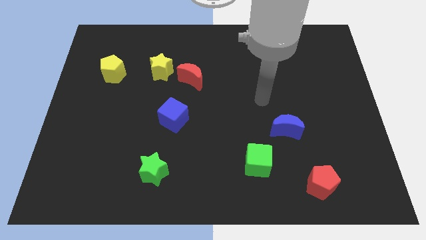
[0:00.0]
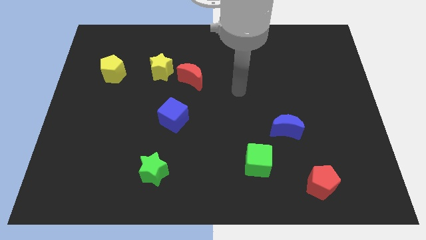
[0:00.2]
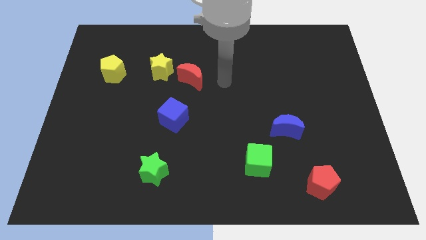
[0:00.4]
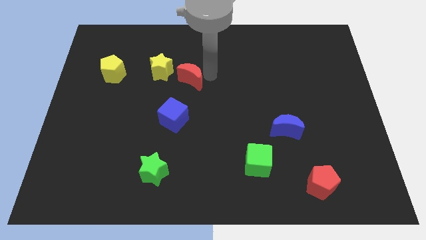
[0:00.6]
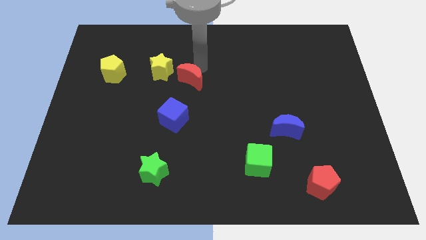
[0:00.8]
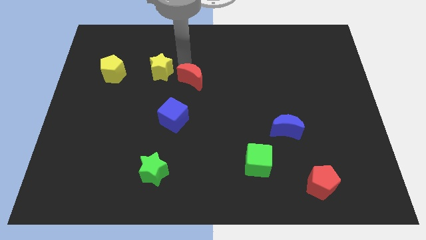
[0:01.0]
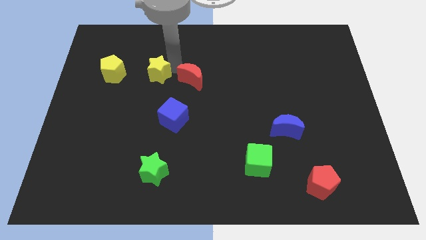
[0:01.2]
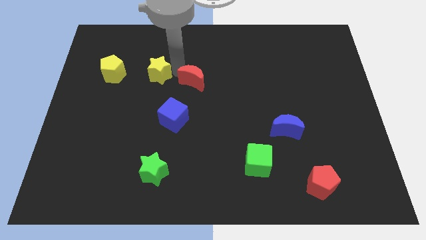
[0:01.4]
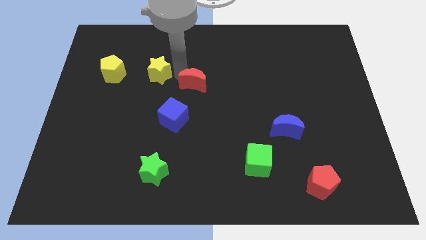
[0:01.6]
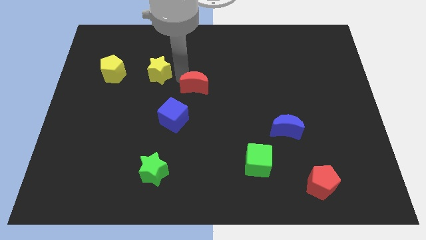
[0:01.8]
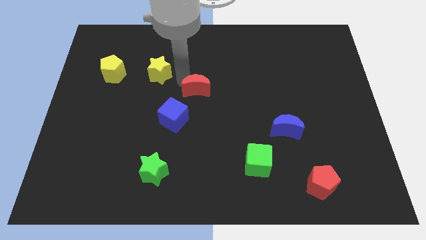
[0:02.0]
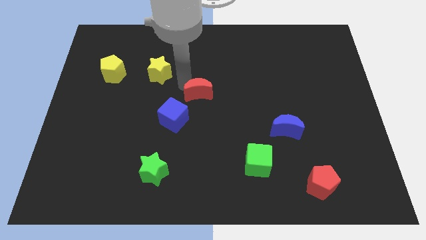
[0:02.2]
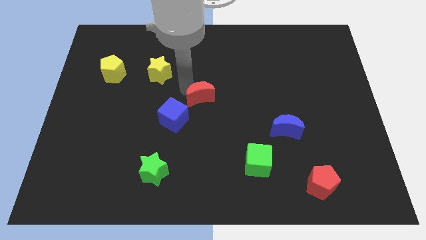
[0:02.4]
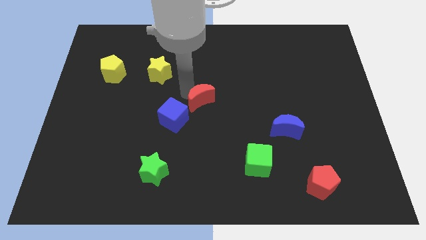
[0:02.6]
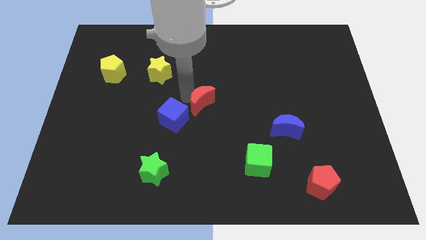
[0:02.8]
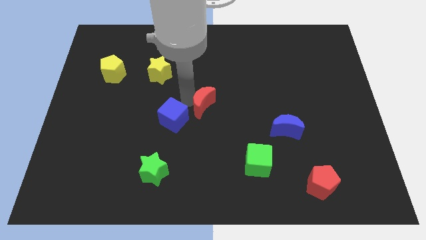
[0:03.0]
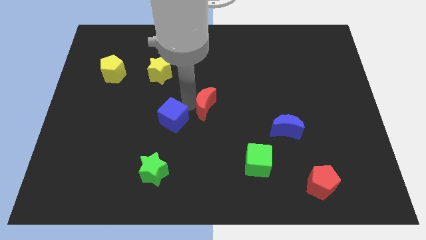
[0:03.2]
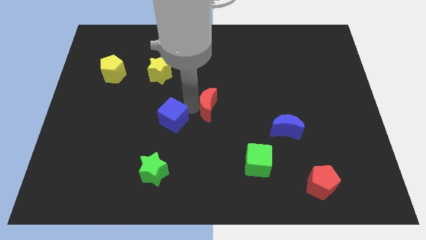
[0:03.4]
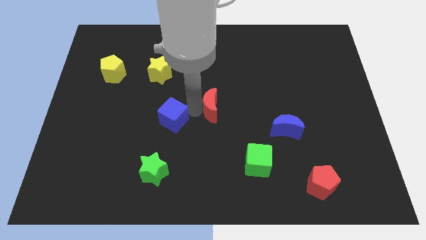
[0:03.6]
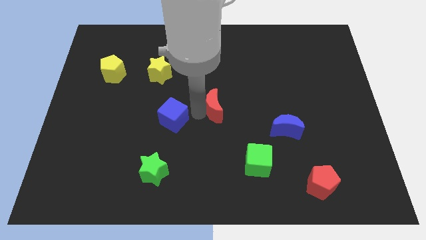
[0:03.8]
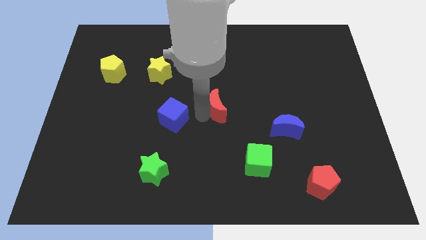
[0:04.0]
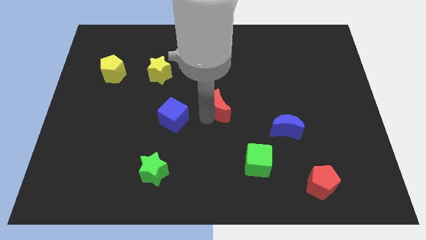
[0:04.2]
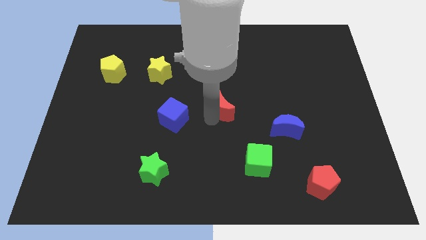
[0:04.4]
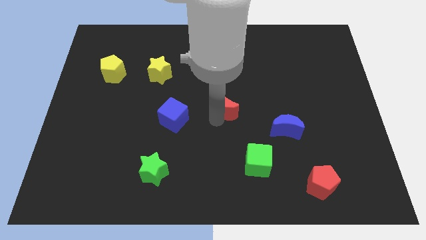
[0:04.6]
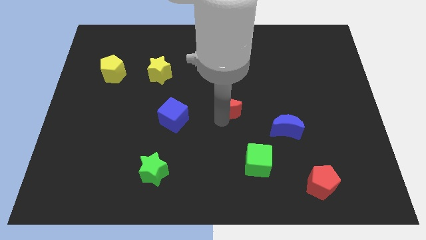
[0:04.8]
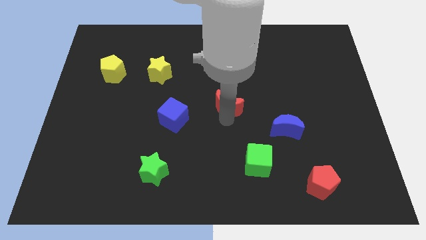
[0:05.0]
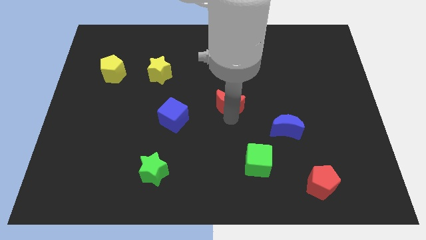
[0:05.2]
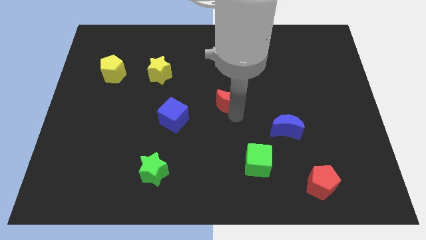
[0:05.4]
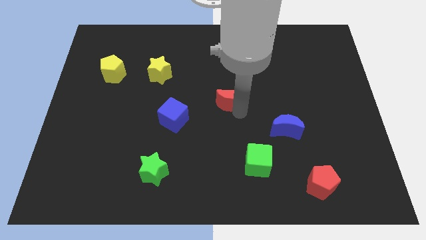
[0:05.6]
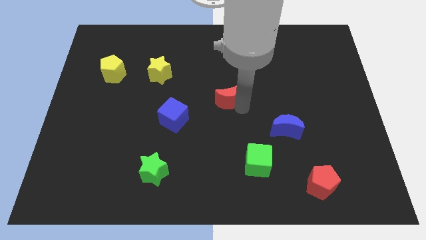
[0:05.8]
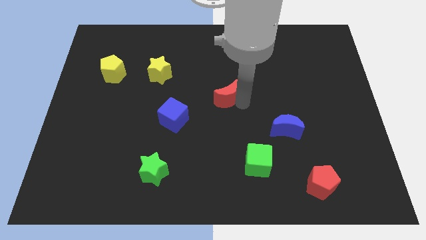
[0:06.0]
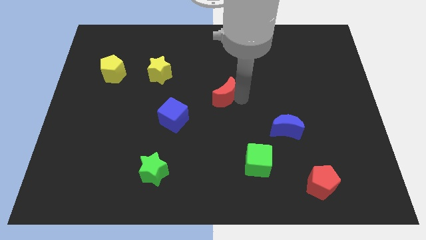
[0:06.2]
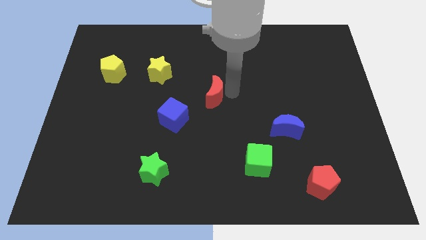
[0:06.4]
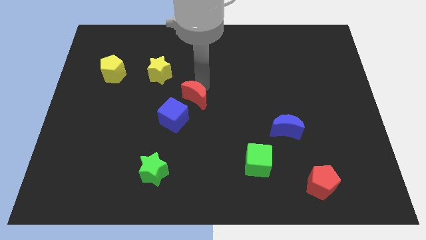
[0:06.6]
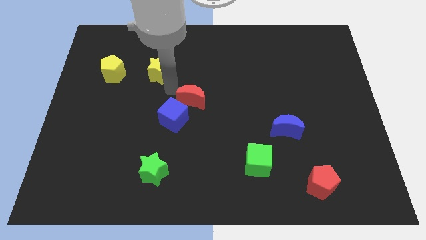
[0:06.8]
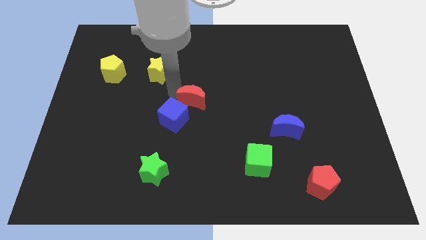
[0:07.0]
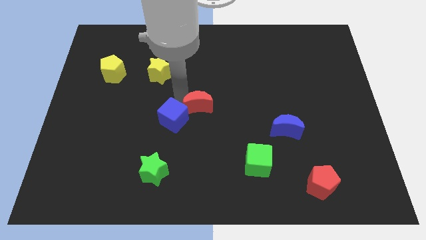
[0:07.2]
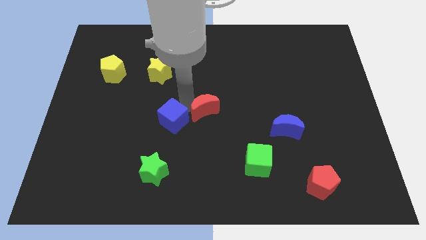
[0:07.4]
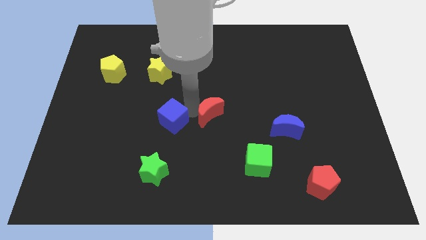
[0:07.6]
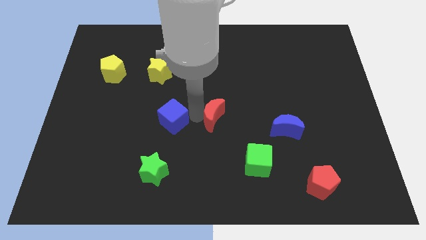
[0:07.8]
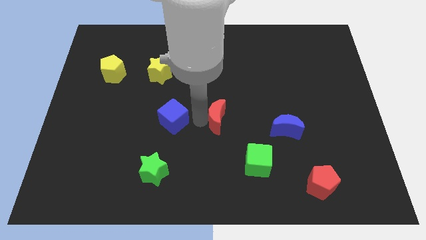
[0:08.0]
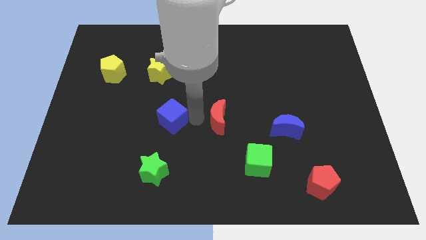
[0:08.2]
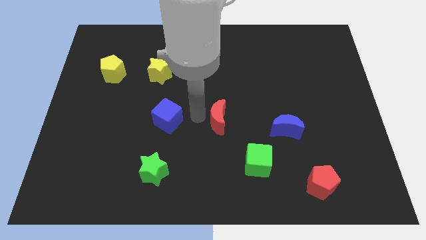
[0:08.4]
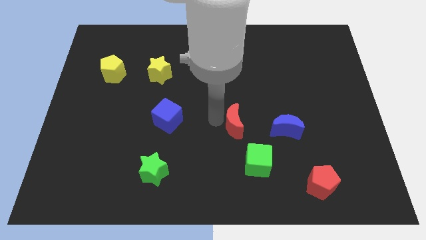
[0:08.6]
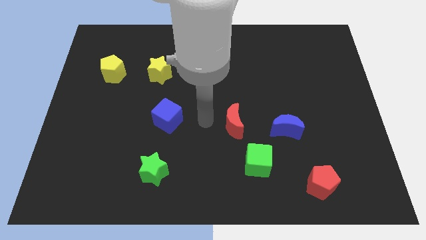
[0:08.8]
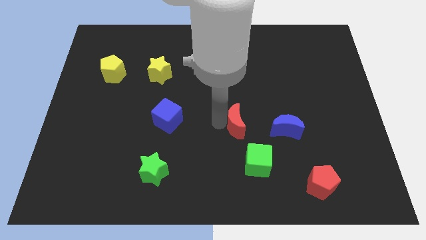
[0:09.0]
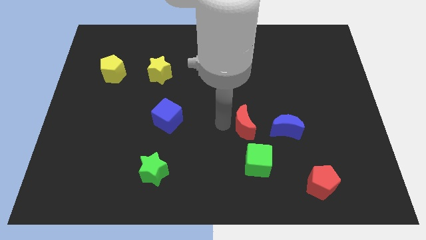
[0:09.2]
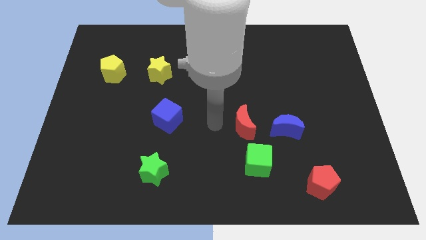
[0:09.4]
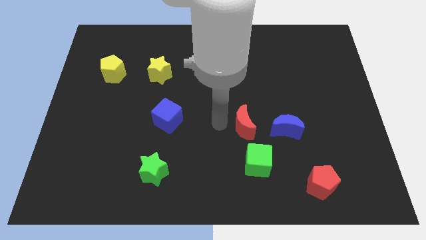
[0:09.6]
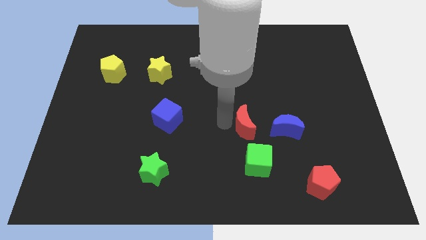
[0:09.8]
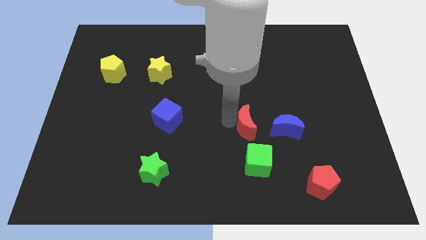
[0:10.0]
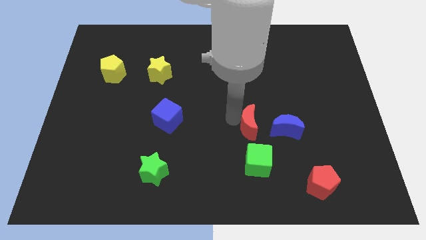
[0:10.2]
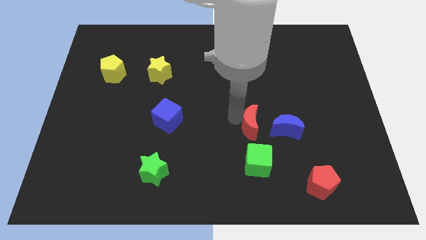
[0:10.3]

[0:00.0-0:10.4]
push the red moon down and then right

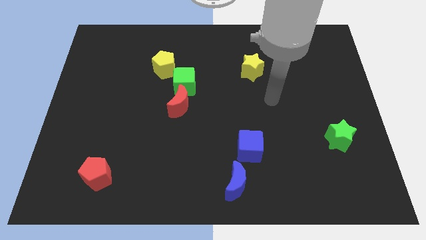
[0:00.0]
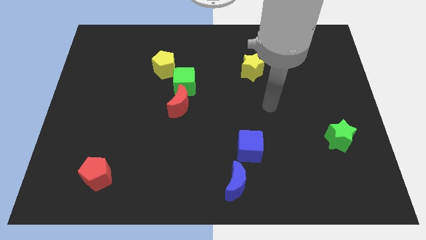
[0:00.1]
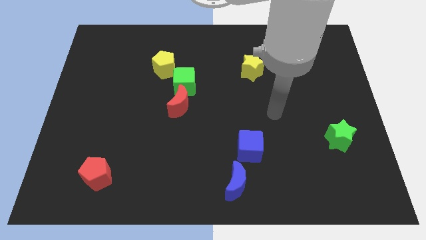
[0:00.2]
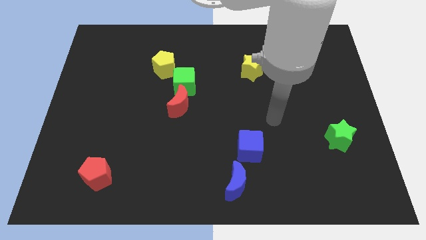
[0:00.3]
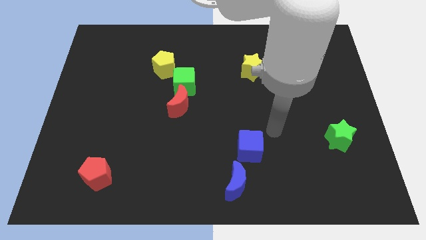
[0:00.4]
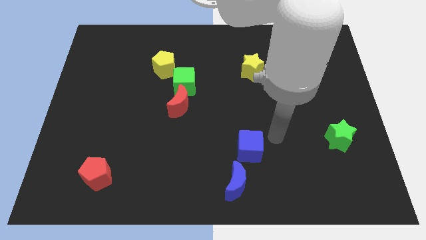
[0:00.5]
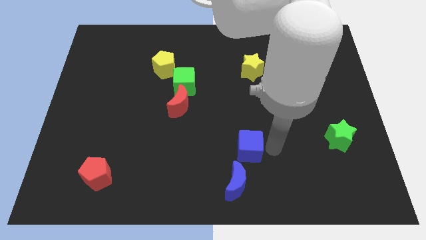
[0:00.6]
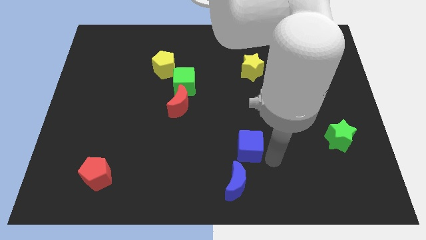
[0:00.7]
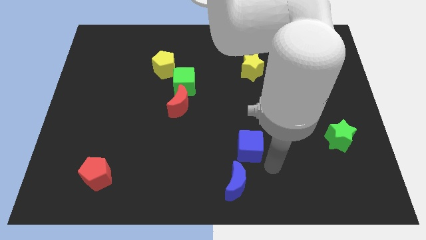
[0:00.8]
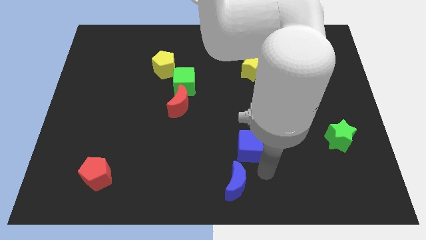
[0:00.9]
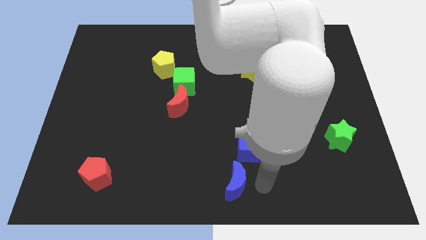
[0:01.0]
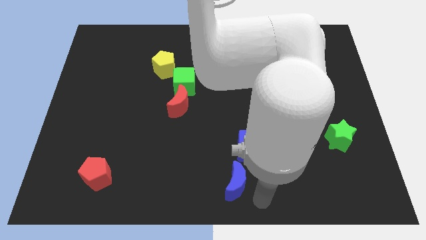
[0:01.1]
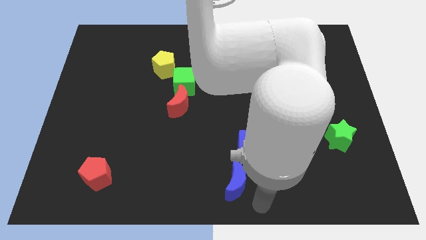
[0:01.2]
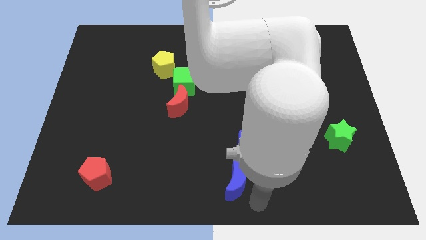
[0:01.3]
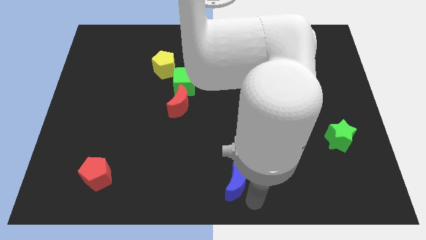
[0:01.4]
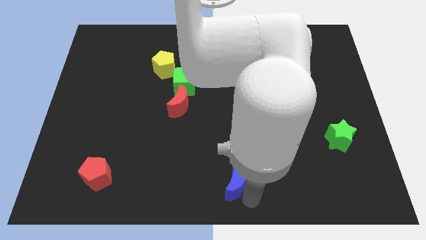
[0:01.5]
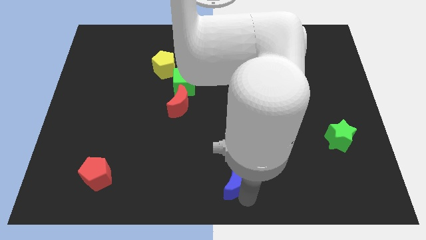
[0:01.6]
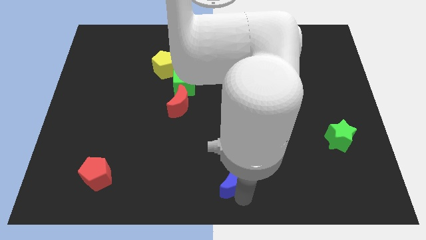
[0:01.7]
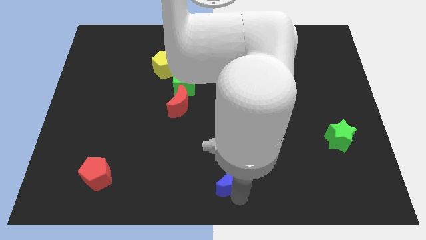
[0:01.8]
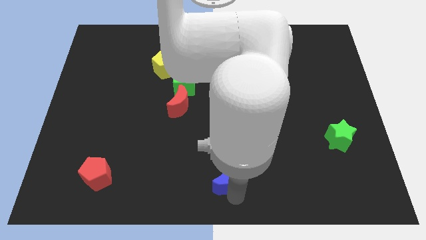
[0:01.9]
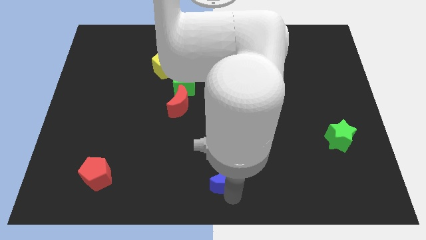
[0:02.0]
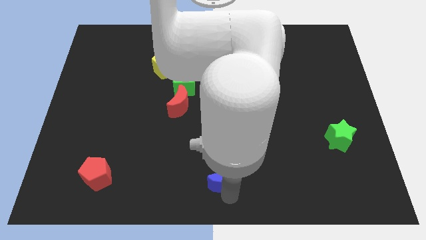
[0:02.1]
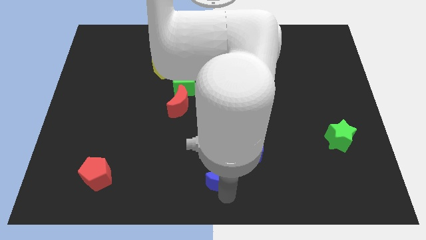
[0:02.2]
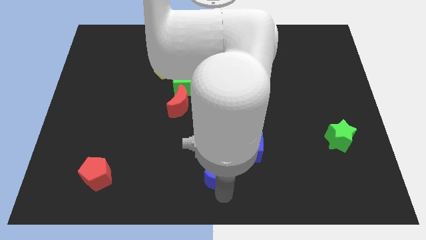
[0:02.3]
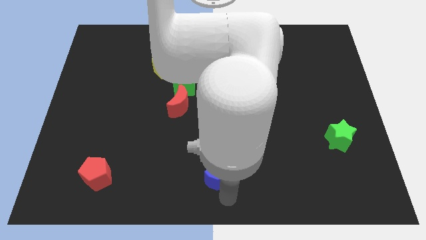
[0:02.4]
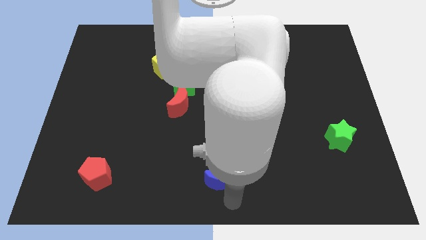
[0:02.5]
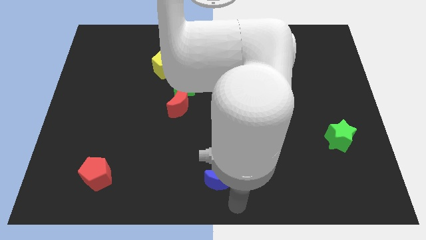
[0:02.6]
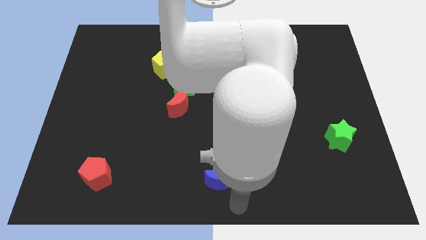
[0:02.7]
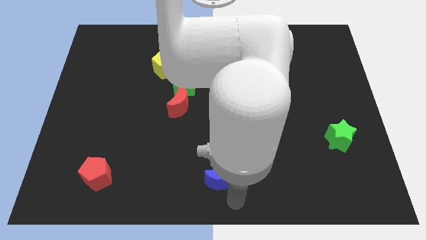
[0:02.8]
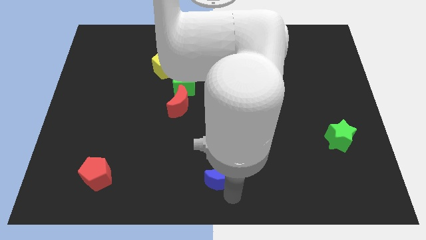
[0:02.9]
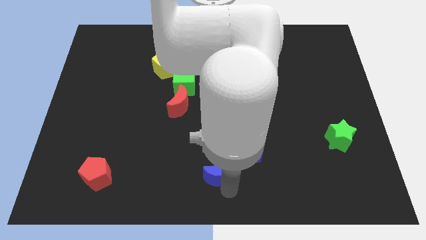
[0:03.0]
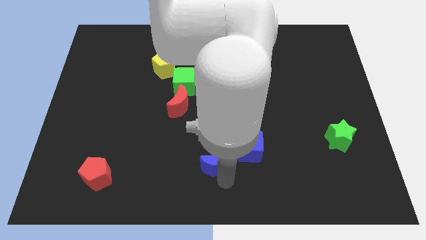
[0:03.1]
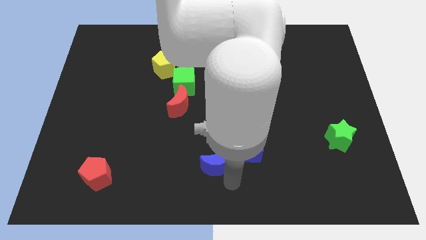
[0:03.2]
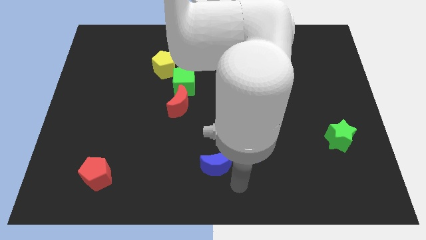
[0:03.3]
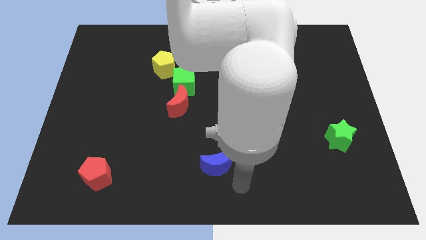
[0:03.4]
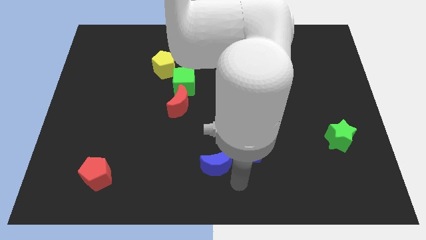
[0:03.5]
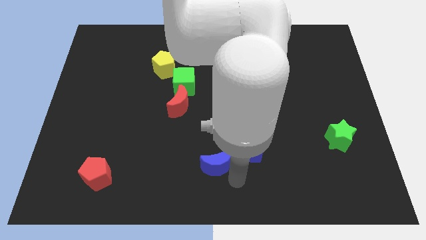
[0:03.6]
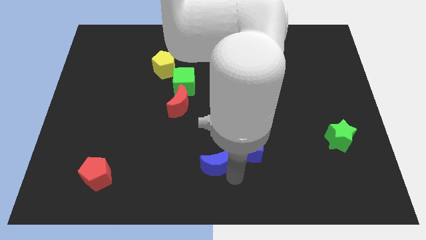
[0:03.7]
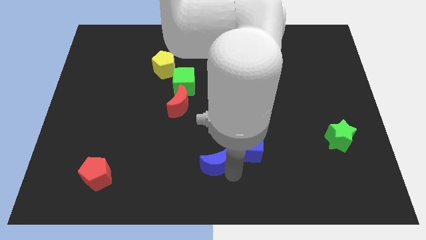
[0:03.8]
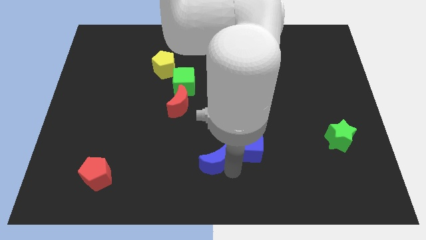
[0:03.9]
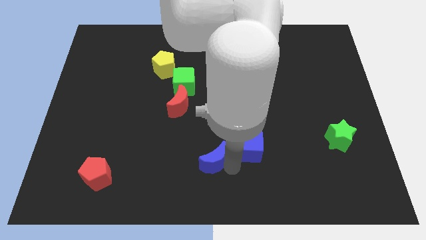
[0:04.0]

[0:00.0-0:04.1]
slightly push the blue moon upwards and left diagonally
